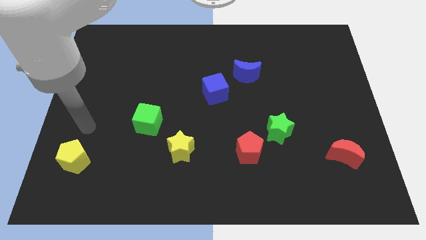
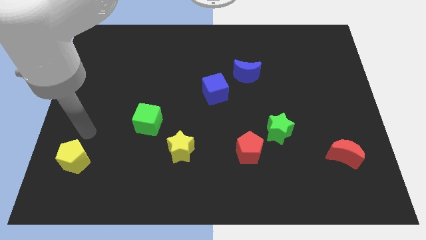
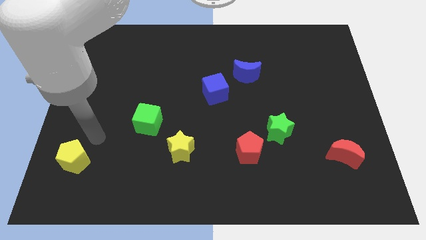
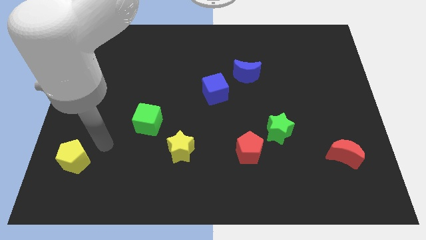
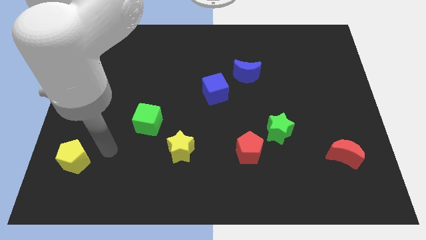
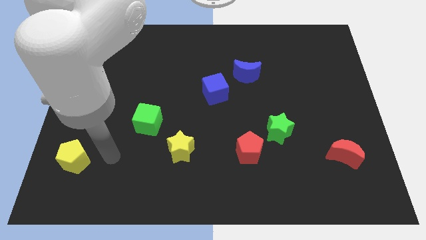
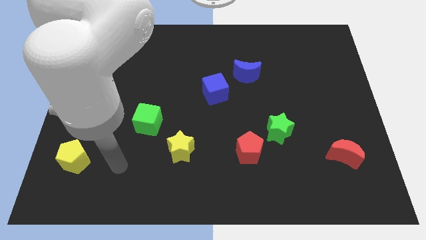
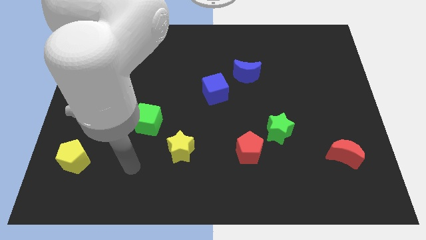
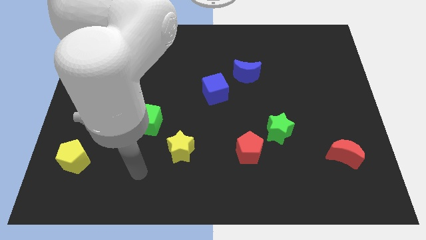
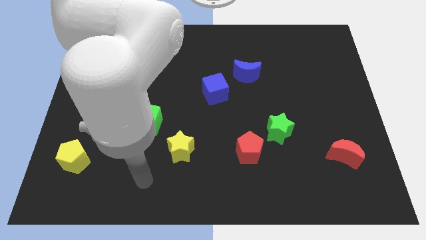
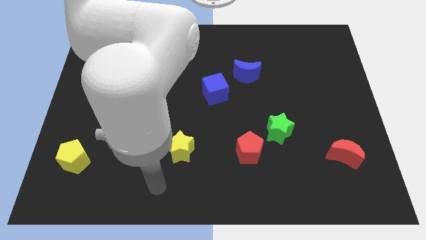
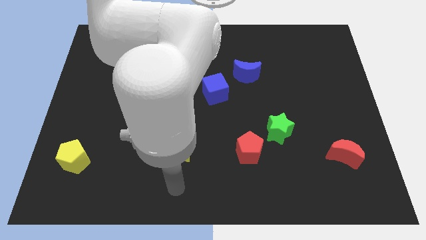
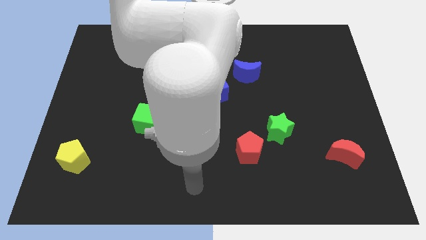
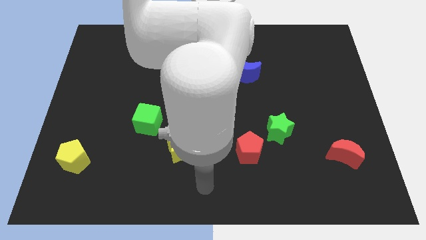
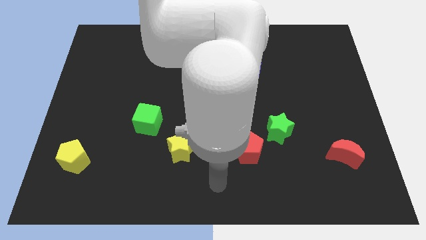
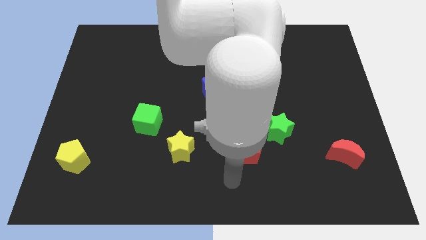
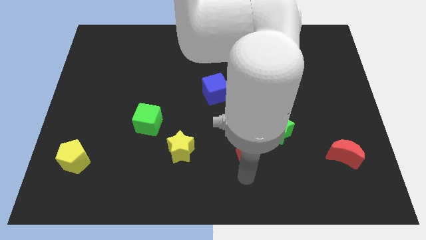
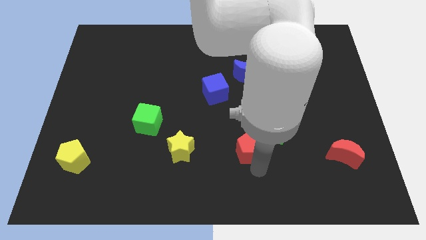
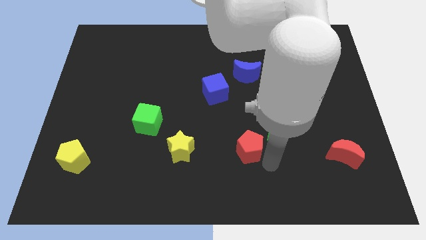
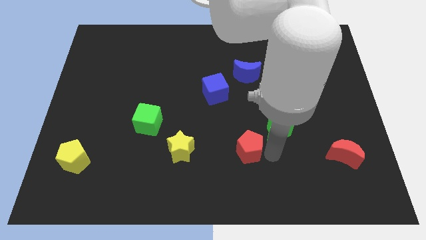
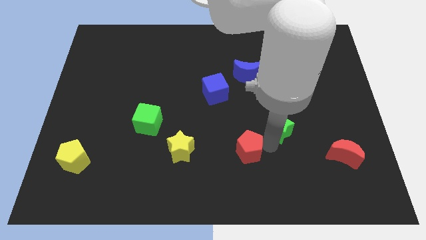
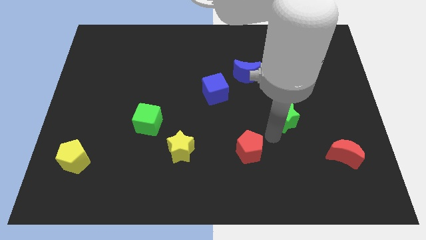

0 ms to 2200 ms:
separate the red pentagon from the green star

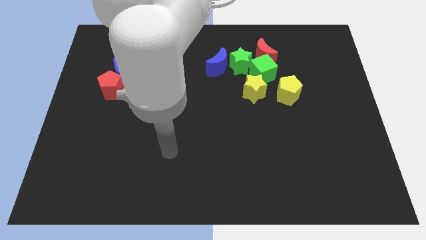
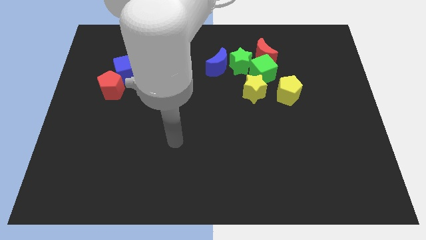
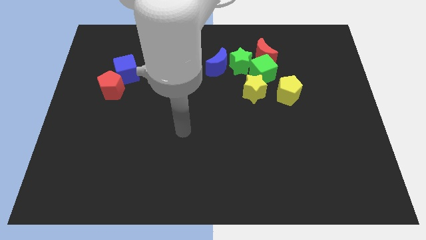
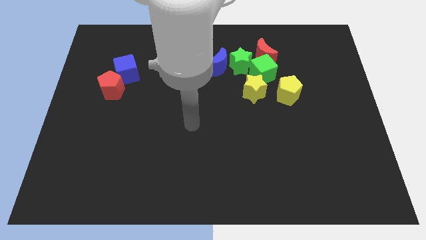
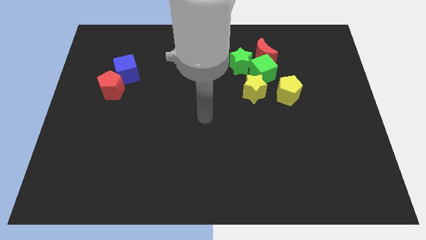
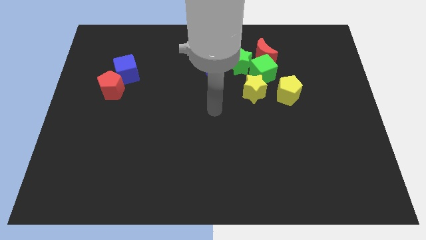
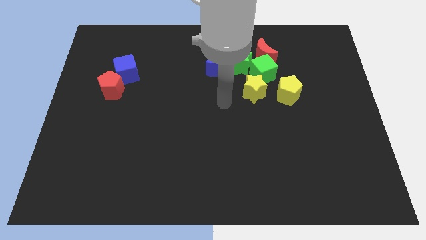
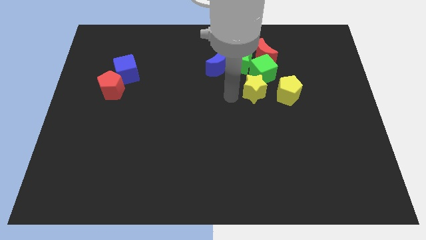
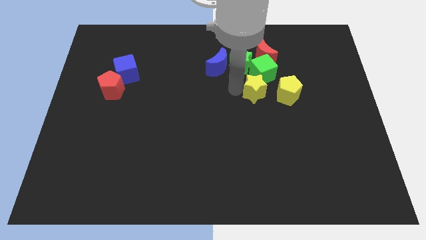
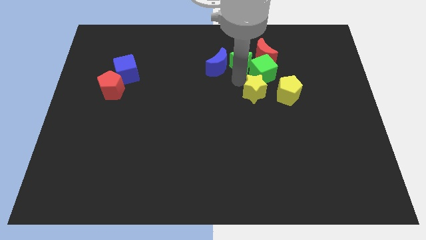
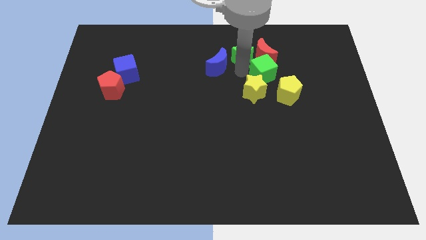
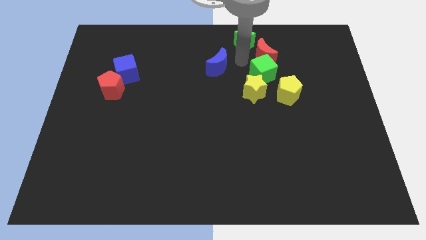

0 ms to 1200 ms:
separate the blue moon from the green star

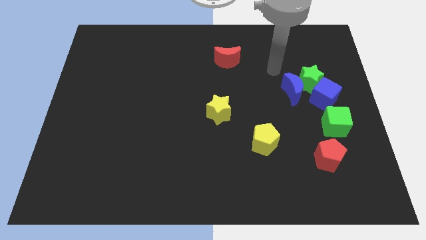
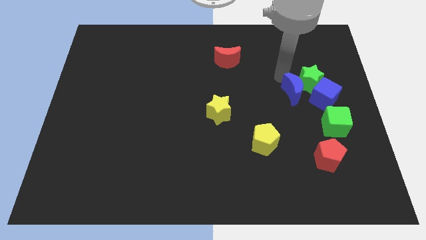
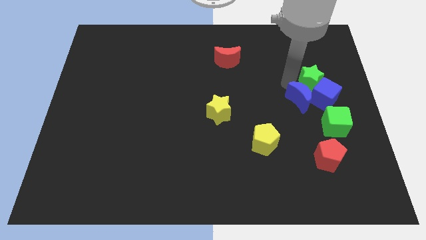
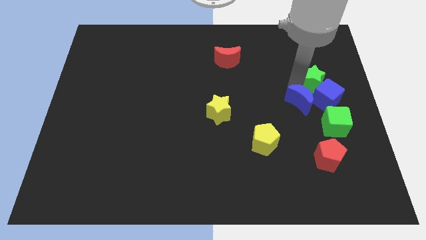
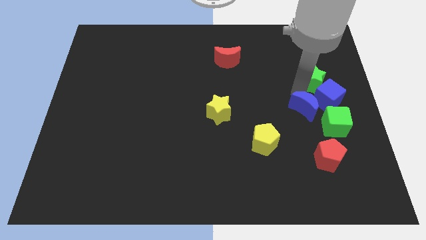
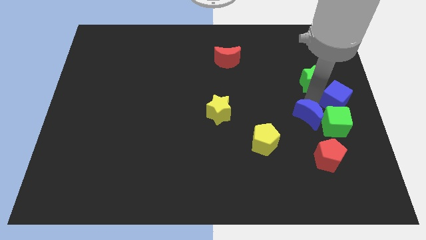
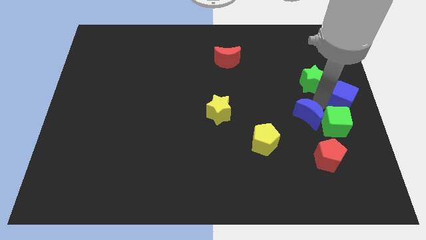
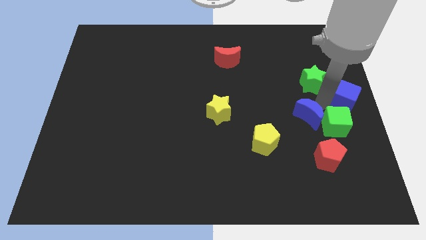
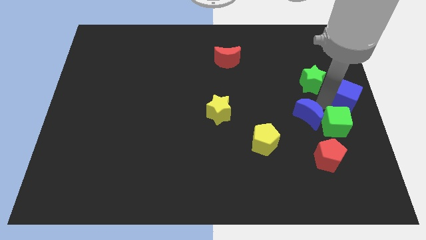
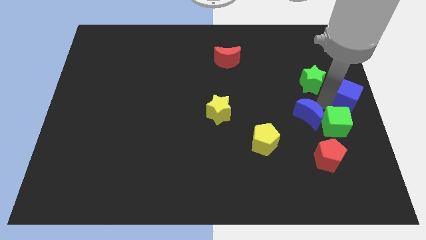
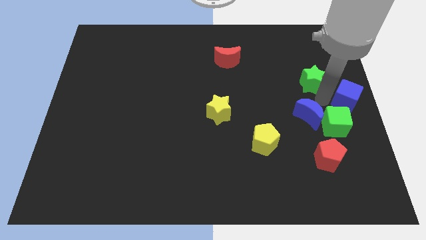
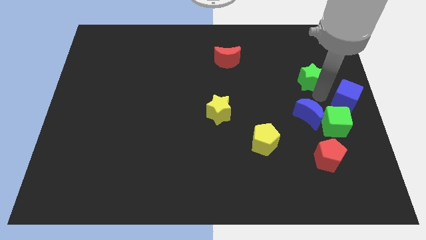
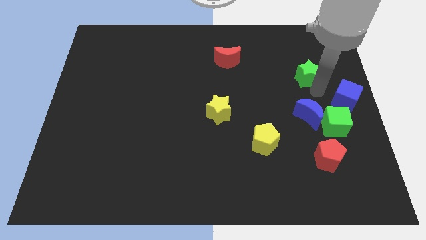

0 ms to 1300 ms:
move the green star away from the blue cube and blue moon

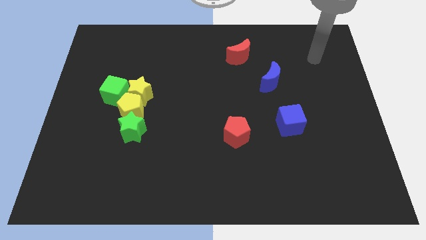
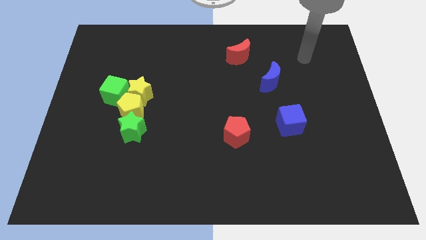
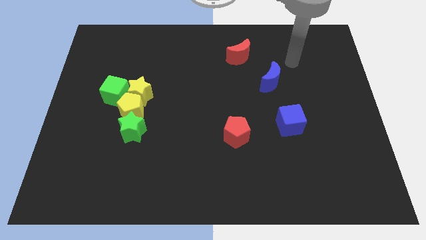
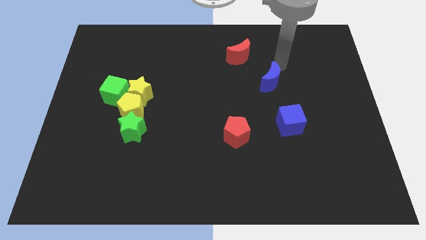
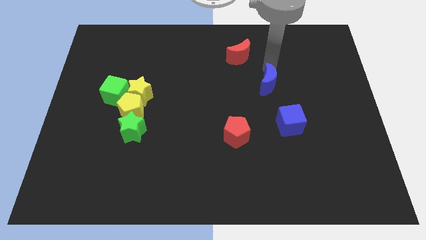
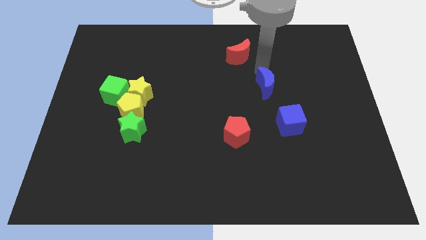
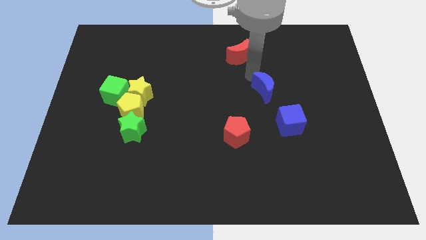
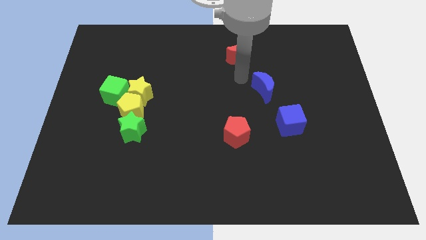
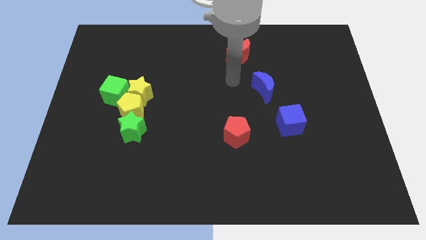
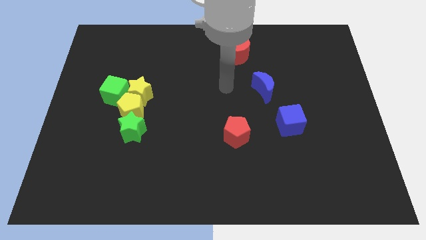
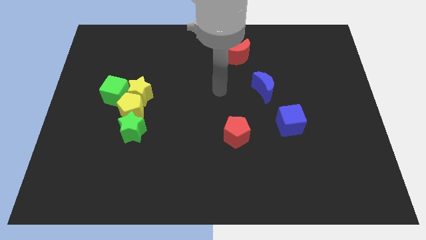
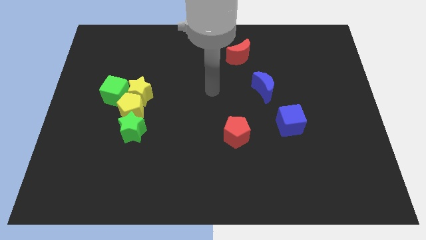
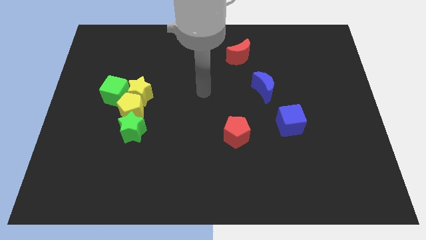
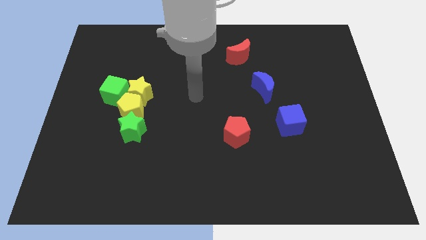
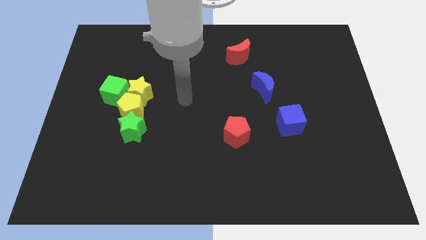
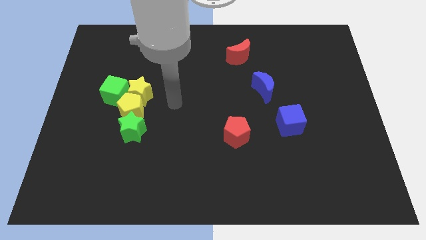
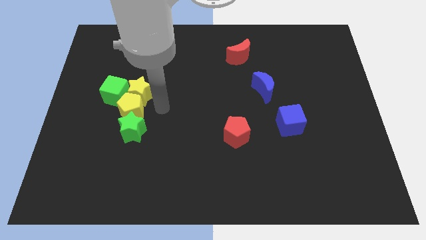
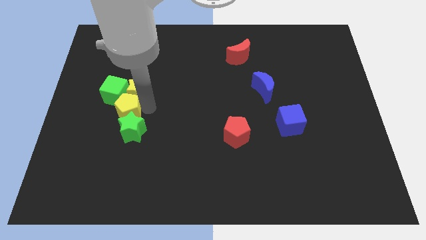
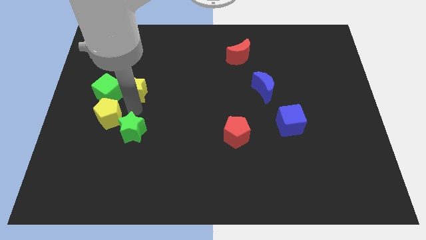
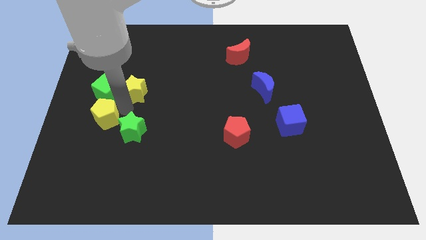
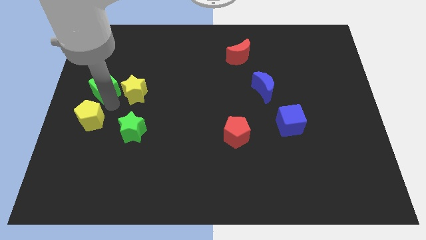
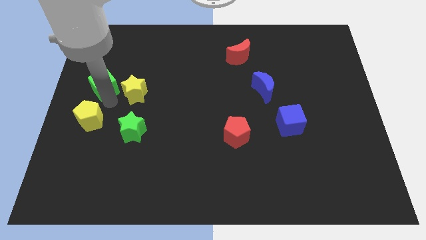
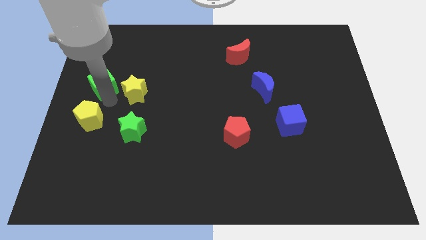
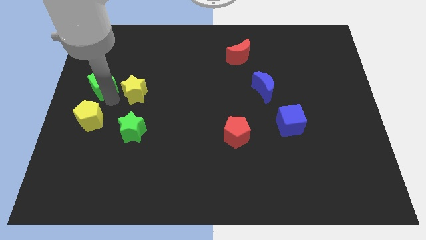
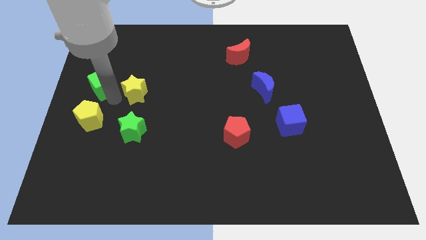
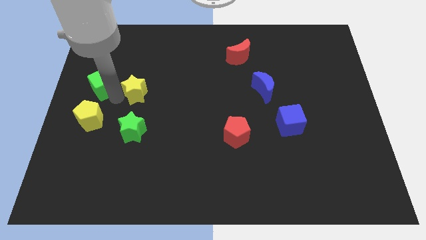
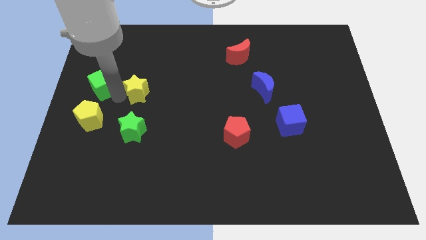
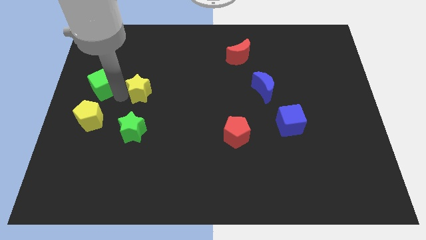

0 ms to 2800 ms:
pull the yellow star apart from the yellow pentagon and green cube

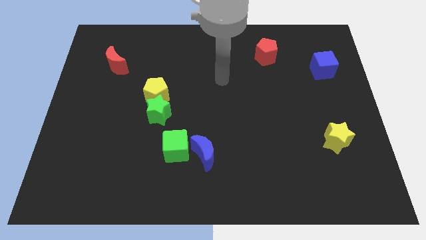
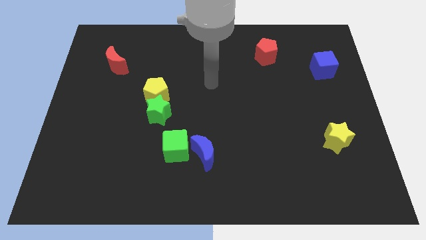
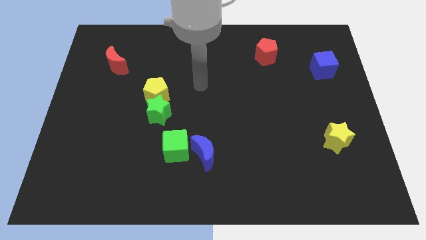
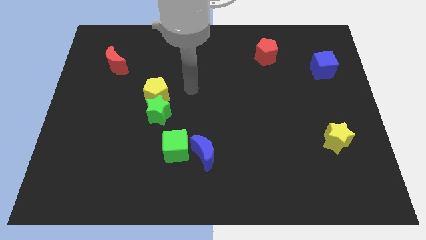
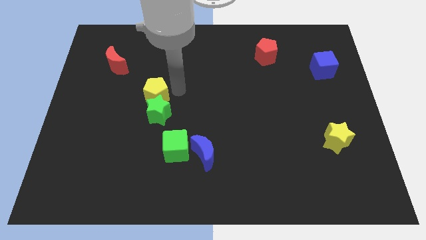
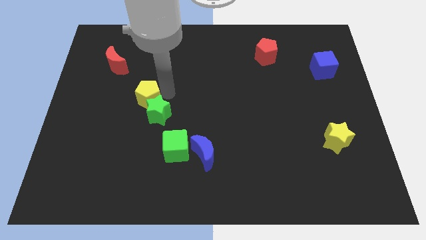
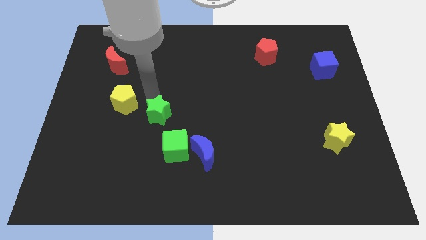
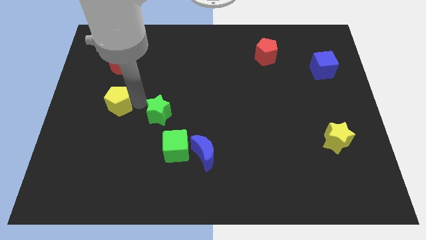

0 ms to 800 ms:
pull the green star apart from the yellow pentagon

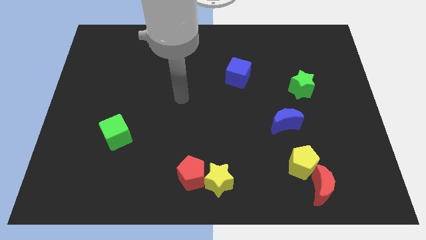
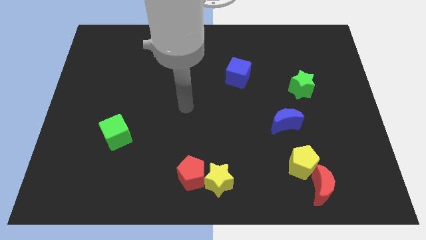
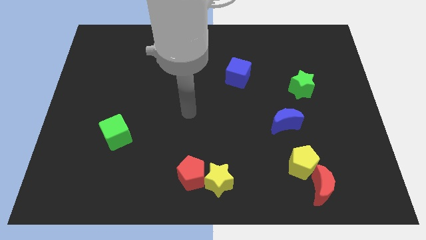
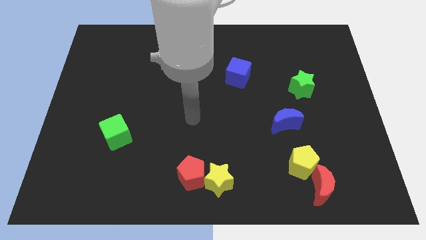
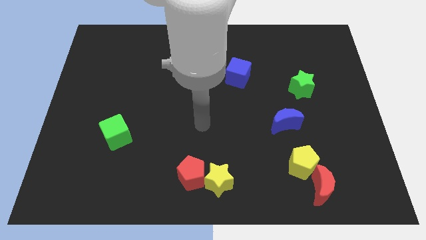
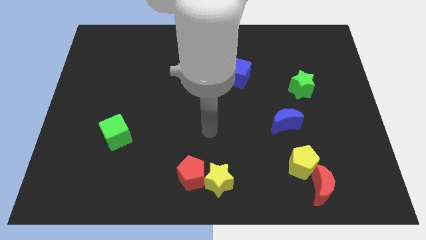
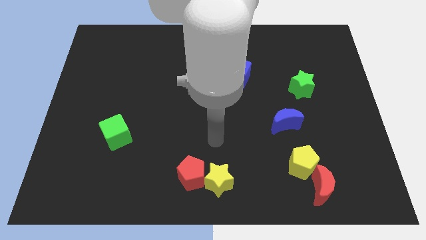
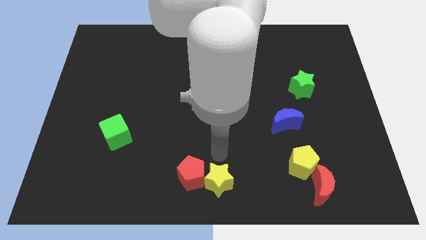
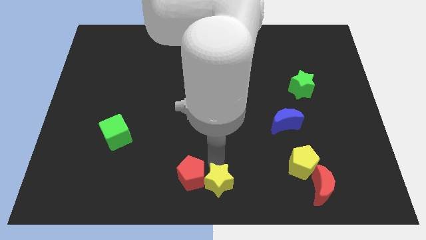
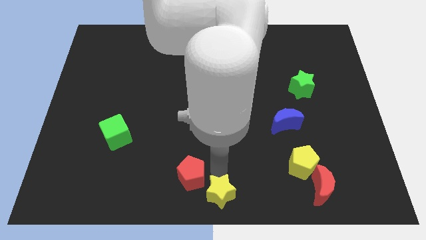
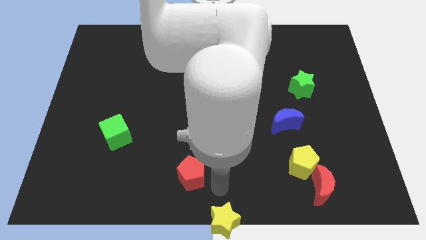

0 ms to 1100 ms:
separate the red pentagon from the yellow star
